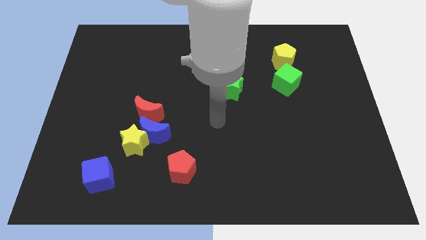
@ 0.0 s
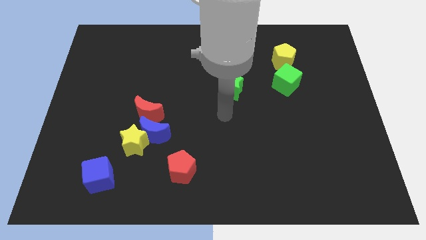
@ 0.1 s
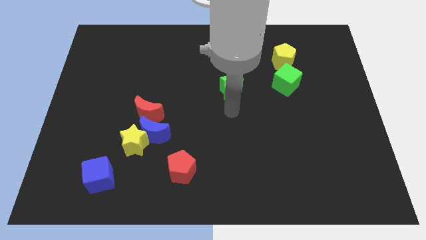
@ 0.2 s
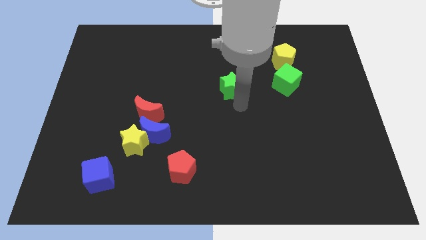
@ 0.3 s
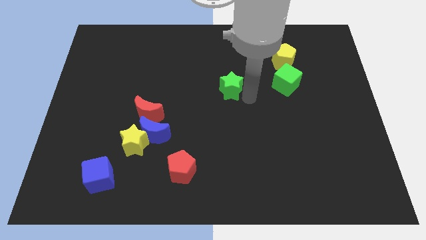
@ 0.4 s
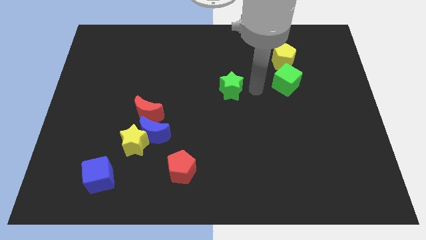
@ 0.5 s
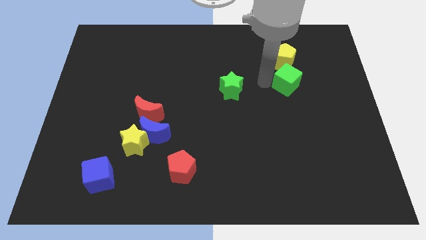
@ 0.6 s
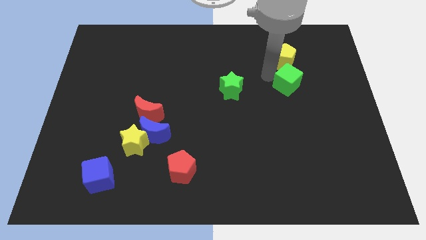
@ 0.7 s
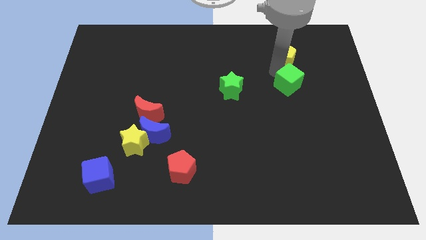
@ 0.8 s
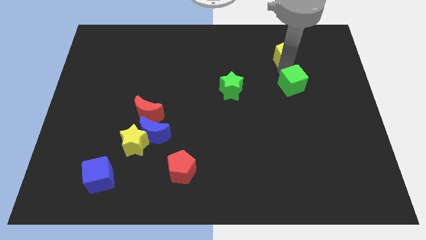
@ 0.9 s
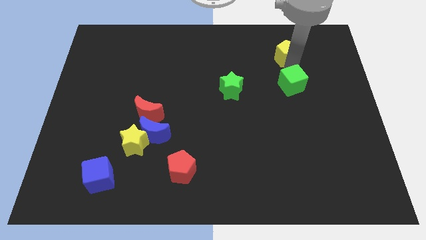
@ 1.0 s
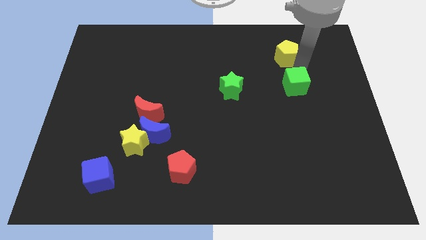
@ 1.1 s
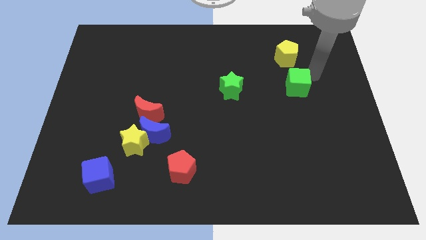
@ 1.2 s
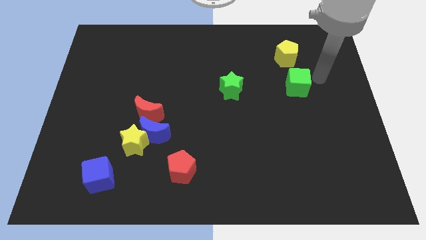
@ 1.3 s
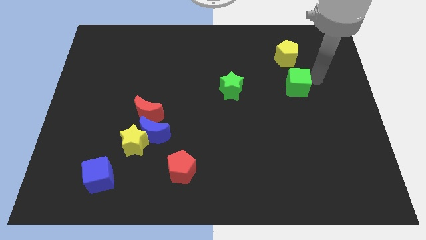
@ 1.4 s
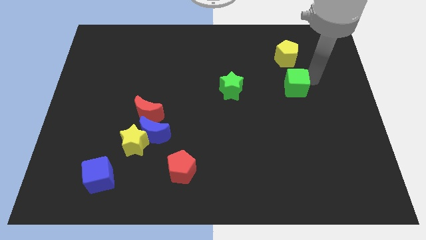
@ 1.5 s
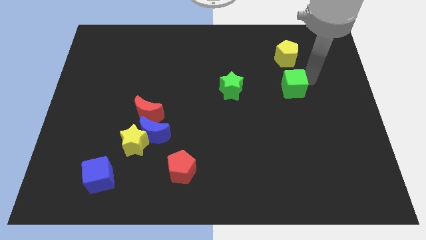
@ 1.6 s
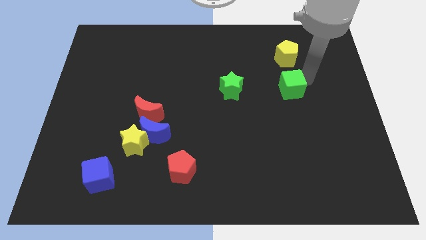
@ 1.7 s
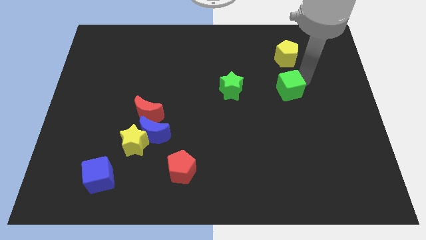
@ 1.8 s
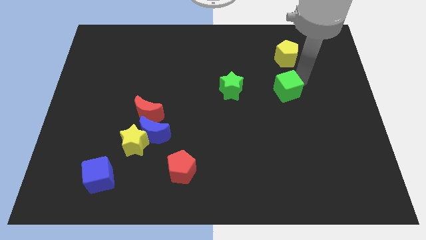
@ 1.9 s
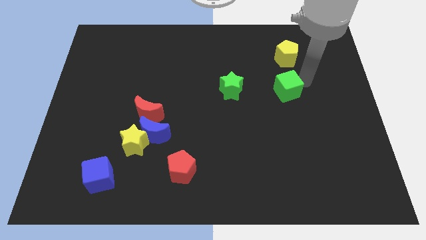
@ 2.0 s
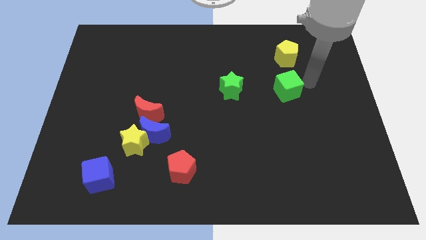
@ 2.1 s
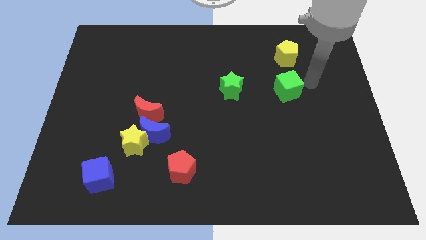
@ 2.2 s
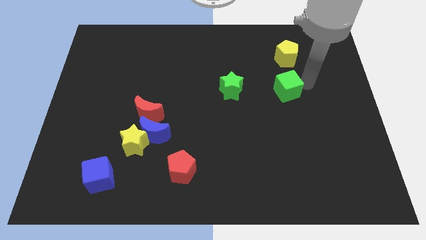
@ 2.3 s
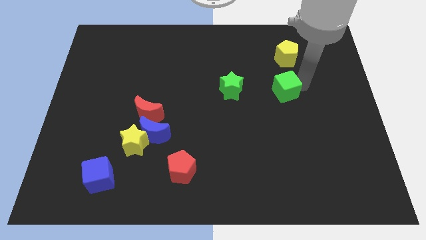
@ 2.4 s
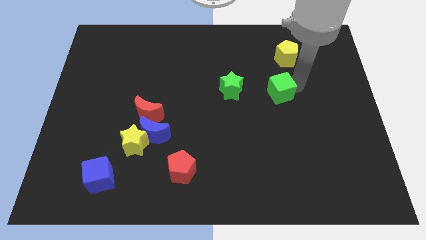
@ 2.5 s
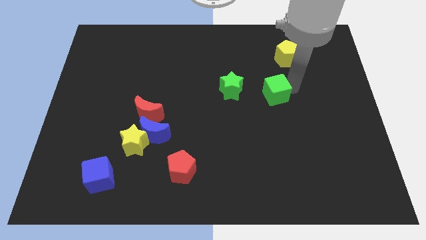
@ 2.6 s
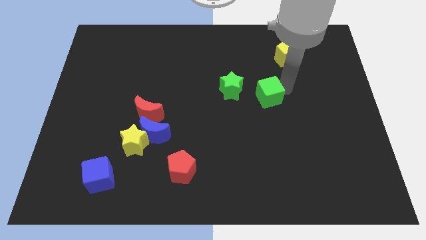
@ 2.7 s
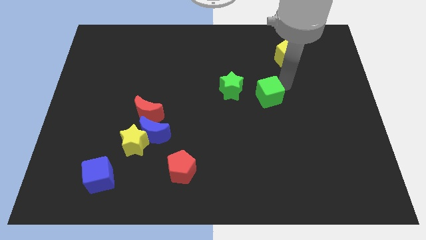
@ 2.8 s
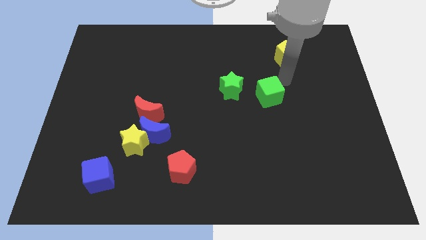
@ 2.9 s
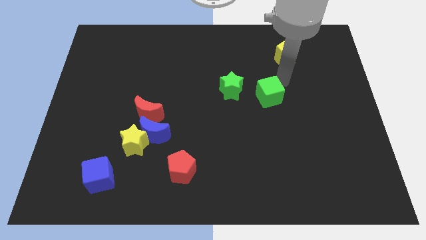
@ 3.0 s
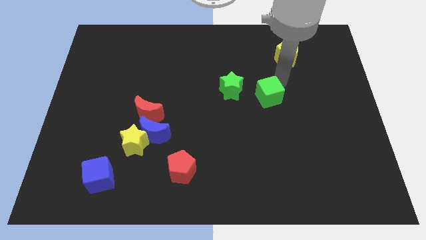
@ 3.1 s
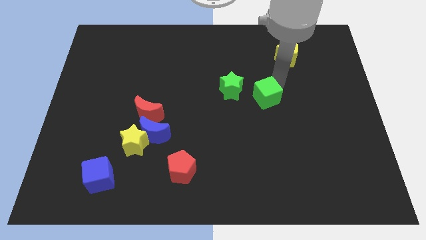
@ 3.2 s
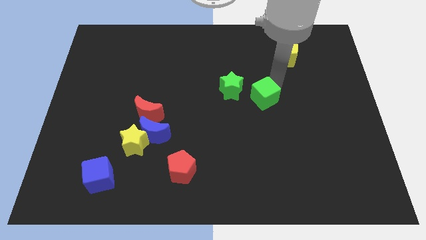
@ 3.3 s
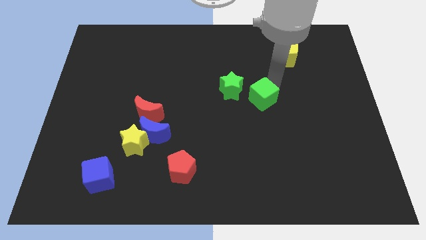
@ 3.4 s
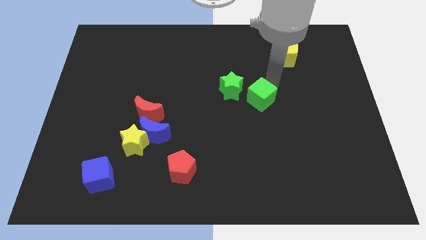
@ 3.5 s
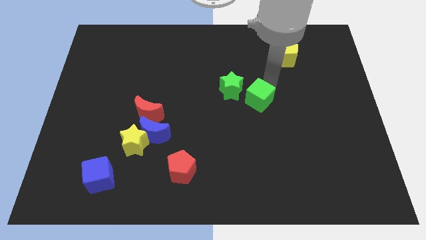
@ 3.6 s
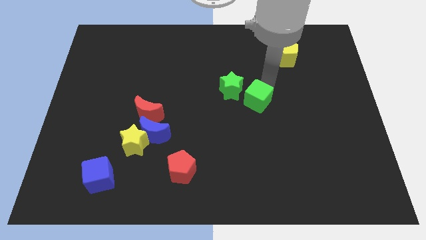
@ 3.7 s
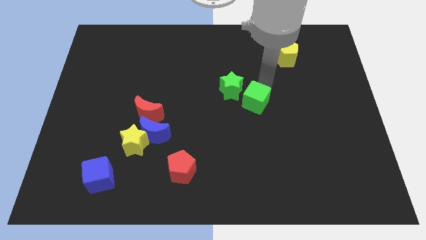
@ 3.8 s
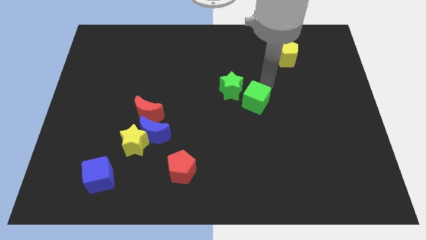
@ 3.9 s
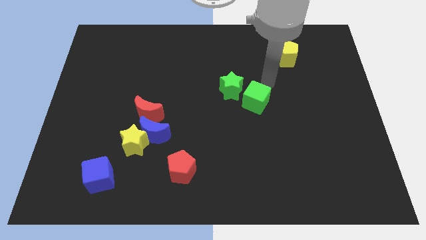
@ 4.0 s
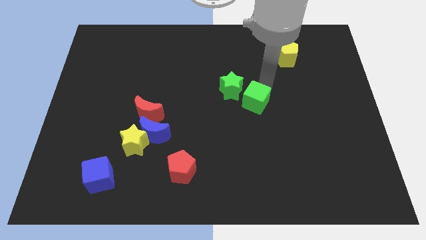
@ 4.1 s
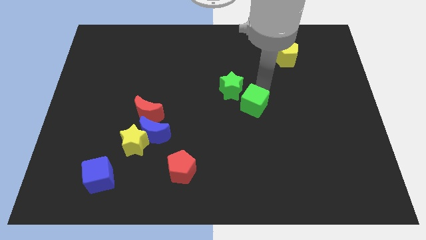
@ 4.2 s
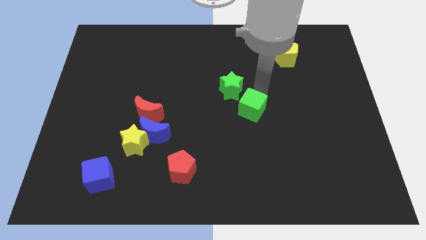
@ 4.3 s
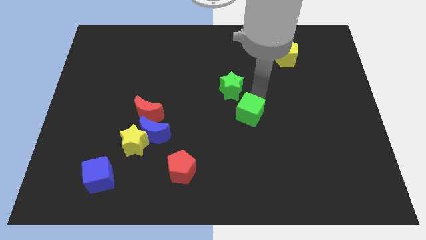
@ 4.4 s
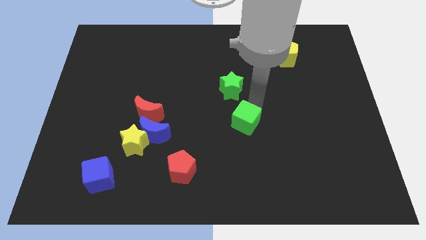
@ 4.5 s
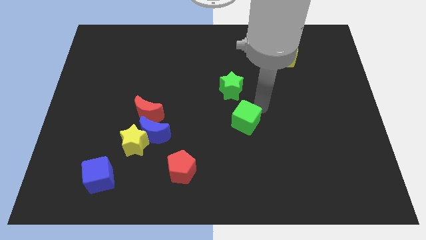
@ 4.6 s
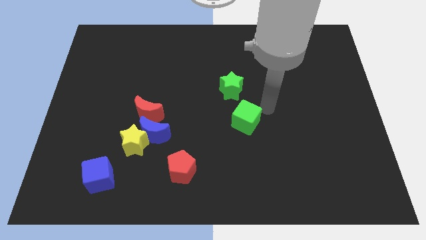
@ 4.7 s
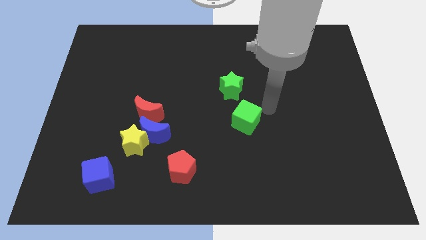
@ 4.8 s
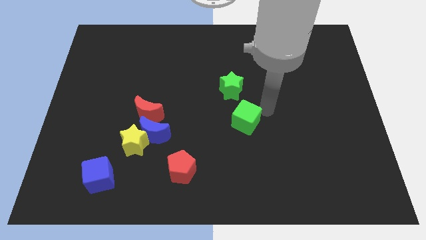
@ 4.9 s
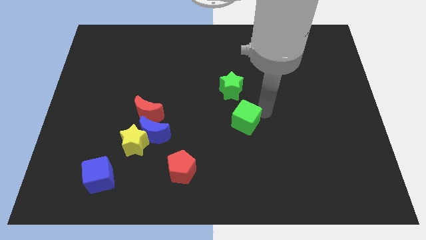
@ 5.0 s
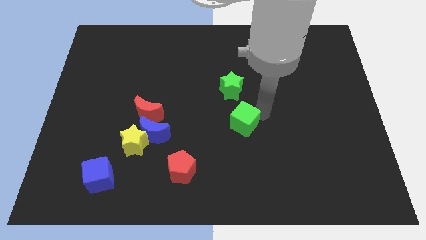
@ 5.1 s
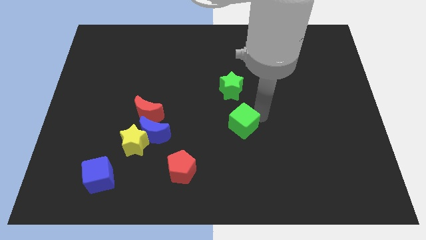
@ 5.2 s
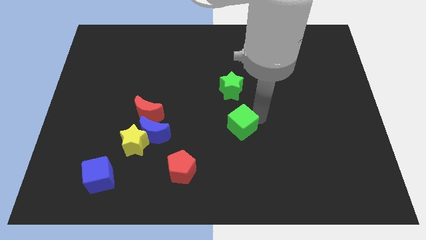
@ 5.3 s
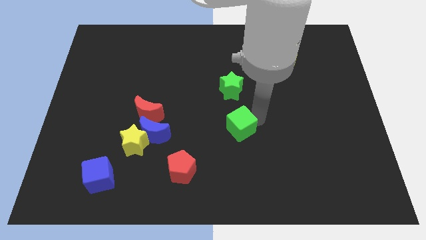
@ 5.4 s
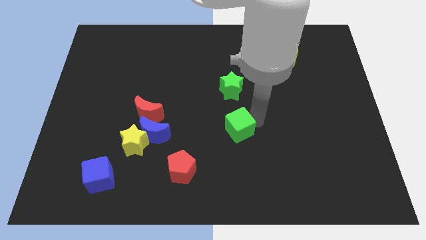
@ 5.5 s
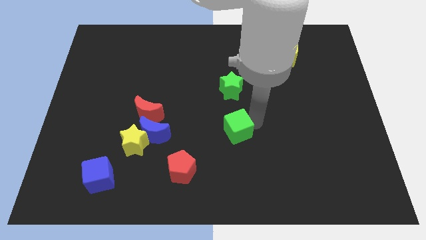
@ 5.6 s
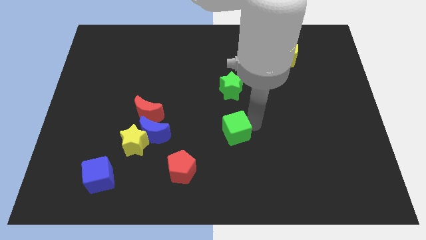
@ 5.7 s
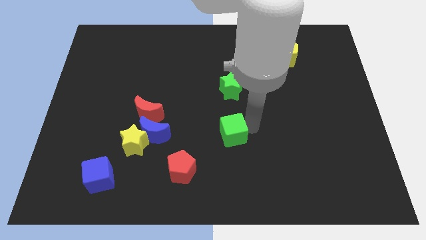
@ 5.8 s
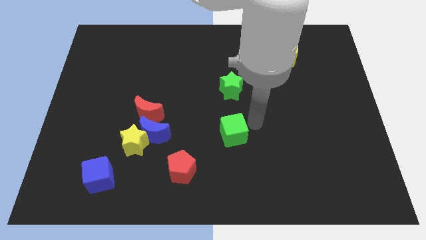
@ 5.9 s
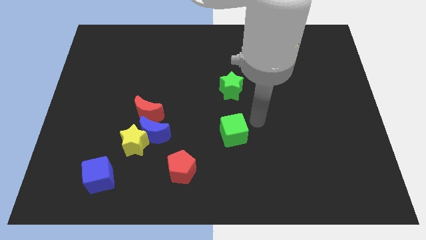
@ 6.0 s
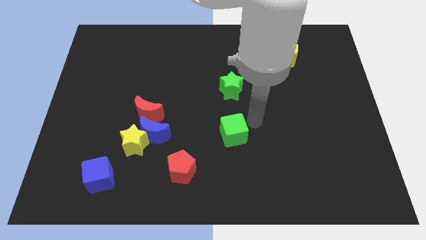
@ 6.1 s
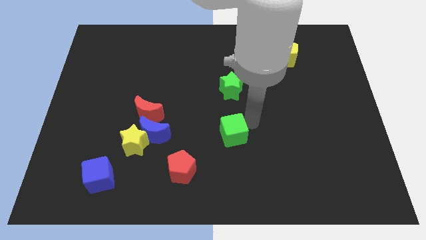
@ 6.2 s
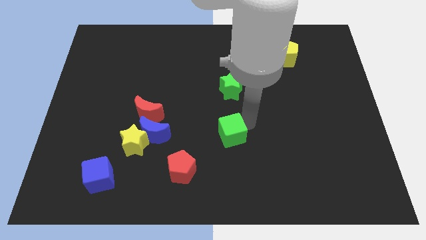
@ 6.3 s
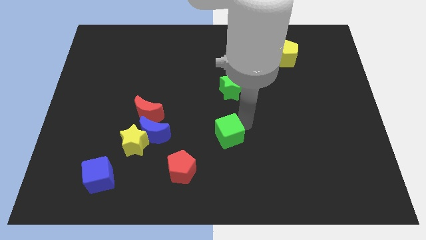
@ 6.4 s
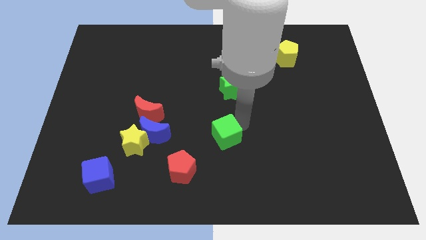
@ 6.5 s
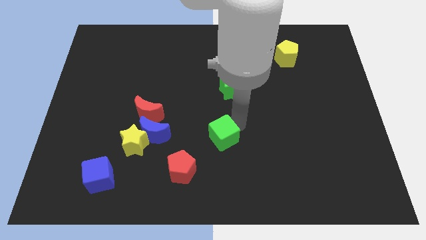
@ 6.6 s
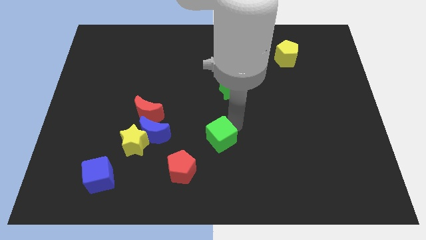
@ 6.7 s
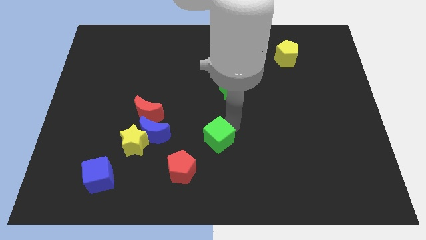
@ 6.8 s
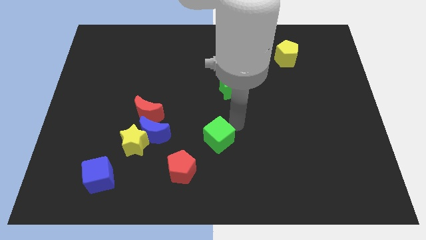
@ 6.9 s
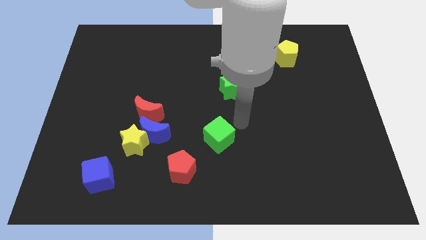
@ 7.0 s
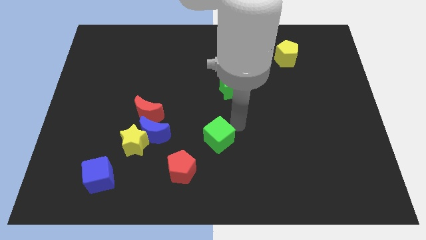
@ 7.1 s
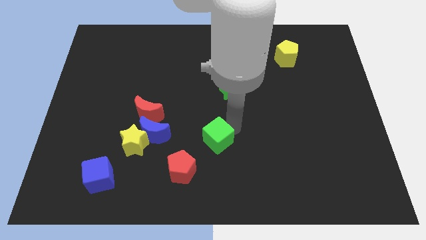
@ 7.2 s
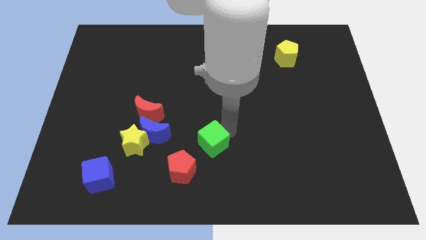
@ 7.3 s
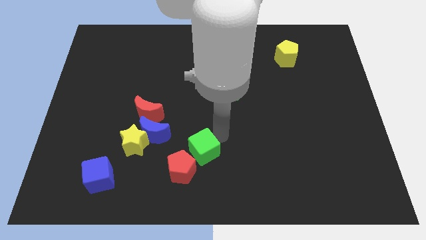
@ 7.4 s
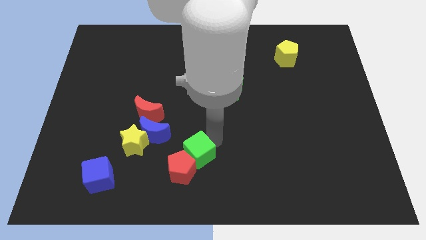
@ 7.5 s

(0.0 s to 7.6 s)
push the green cube towards the red pentagon

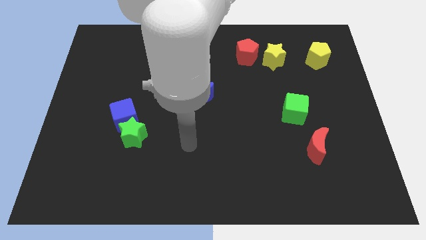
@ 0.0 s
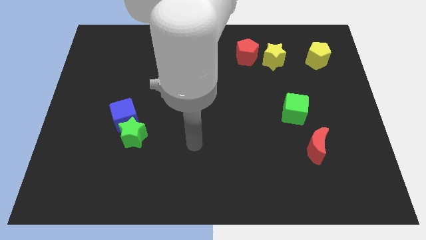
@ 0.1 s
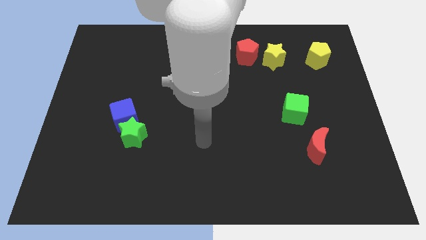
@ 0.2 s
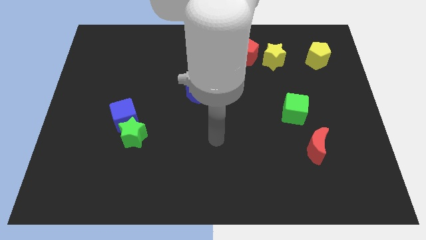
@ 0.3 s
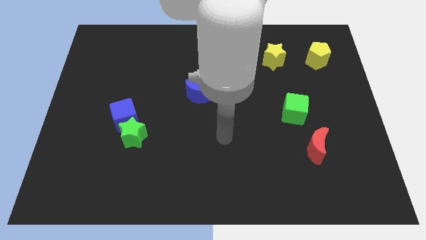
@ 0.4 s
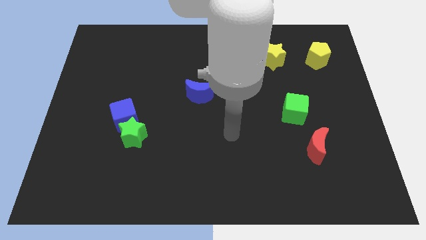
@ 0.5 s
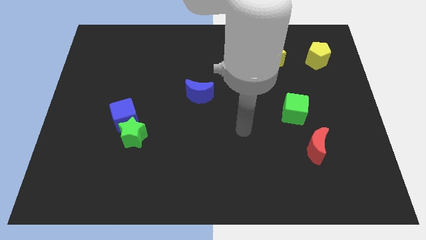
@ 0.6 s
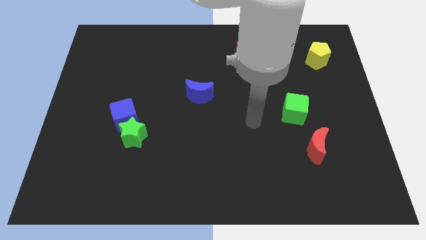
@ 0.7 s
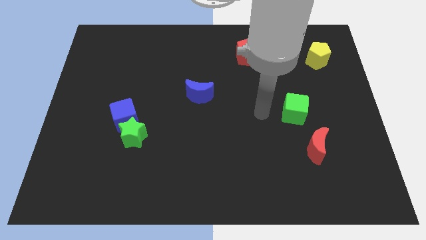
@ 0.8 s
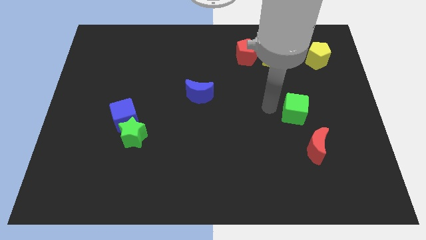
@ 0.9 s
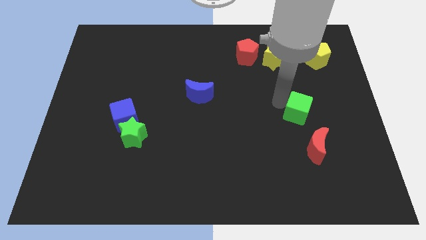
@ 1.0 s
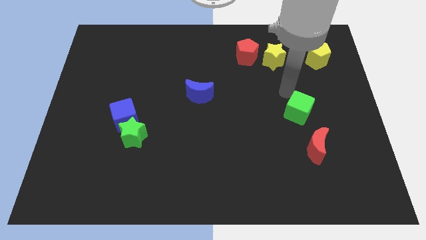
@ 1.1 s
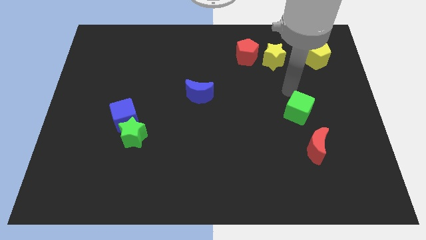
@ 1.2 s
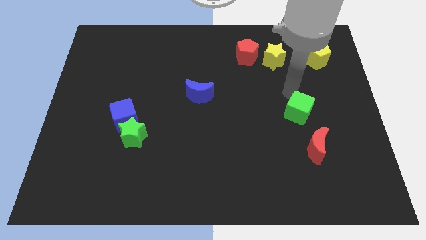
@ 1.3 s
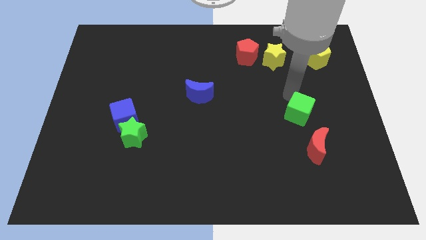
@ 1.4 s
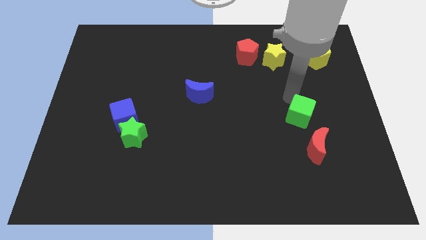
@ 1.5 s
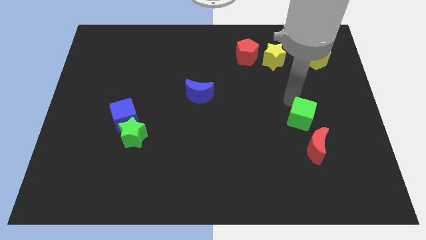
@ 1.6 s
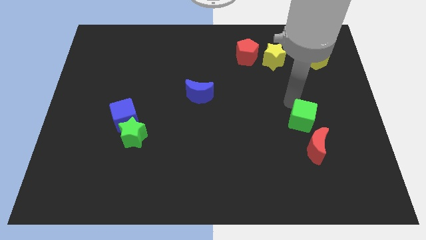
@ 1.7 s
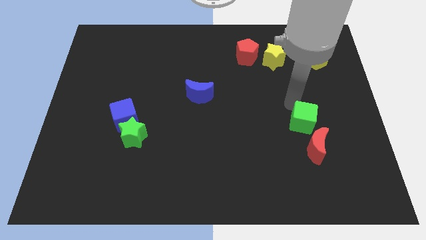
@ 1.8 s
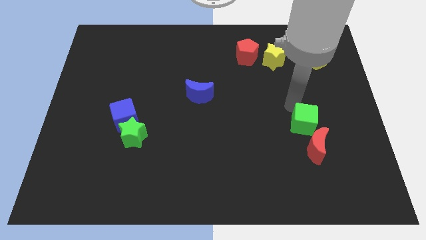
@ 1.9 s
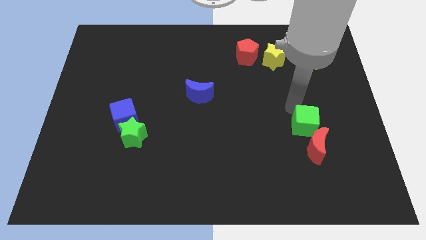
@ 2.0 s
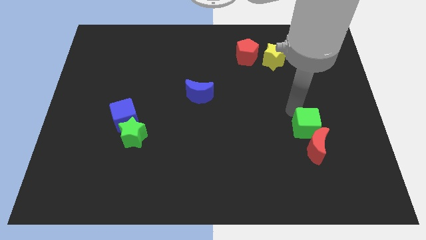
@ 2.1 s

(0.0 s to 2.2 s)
put the green cube close to the red moon
